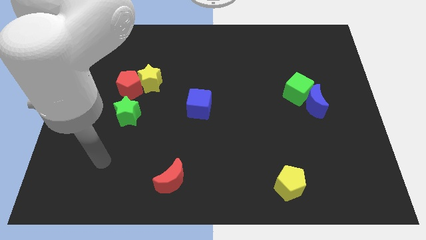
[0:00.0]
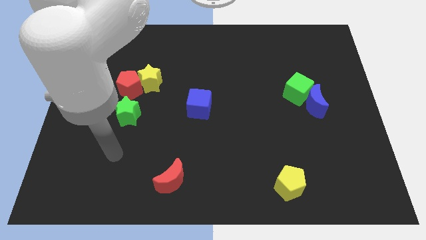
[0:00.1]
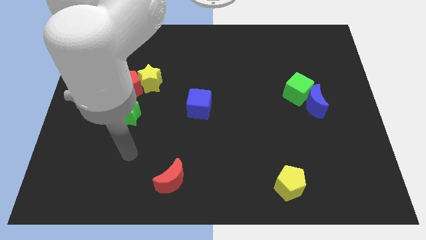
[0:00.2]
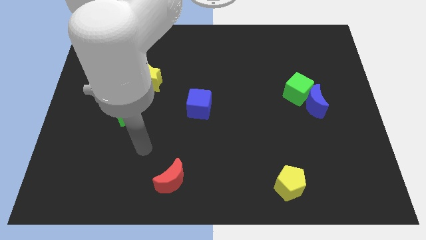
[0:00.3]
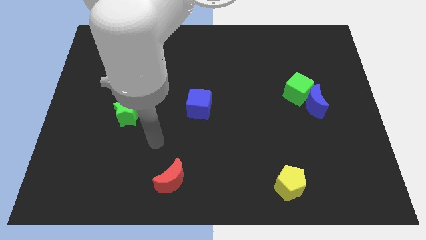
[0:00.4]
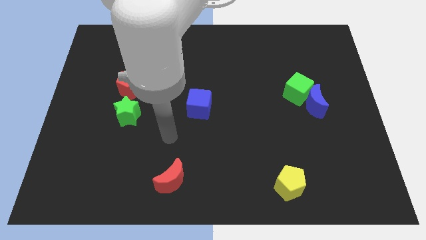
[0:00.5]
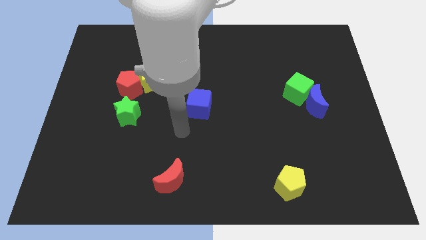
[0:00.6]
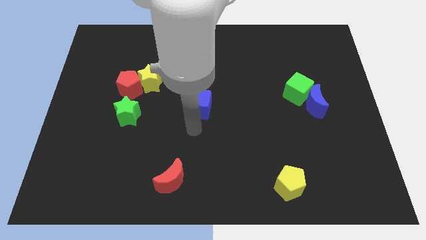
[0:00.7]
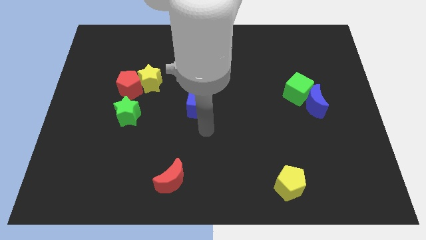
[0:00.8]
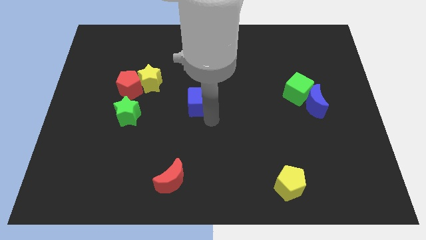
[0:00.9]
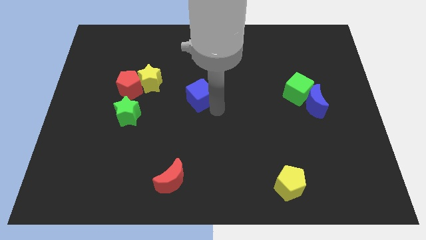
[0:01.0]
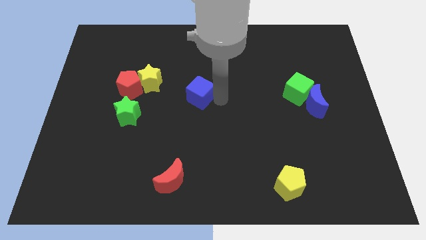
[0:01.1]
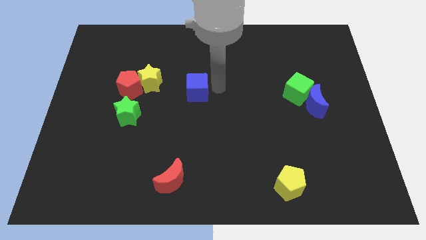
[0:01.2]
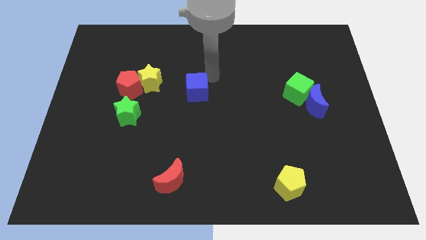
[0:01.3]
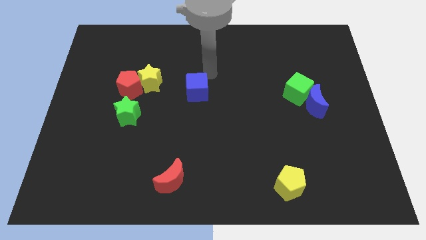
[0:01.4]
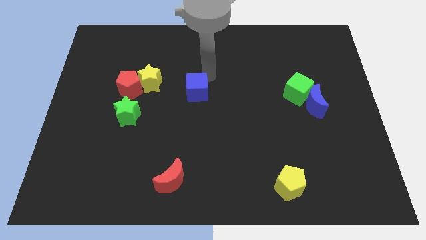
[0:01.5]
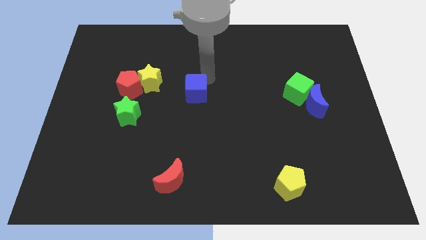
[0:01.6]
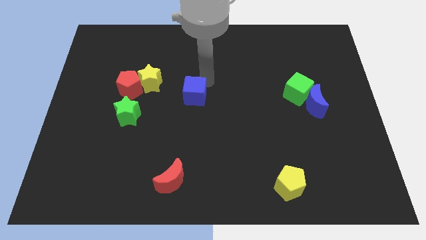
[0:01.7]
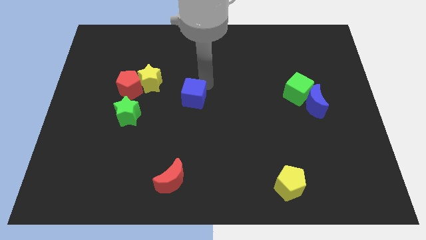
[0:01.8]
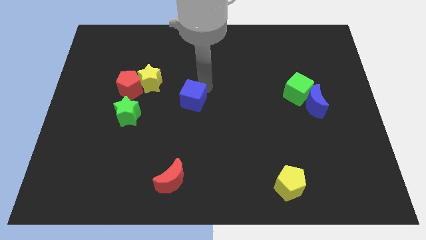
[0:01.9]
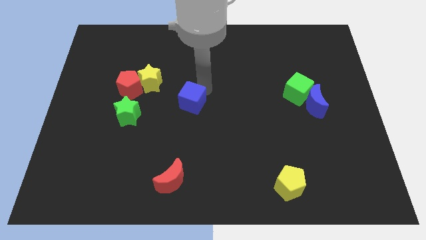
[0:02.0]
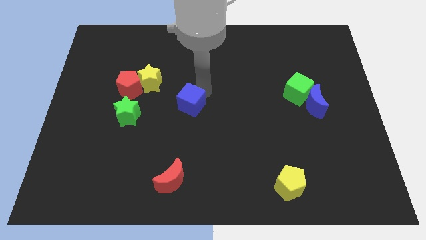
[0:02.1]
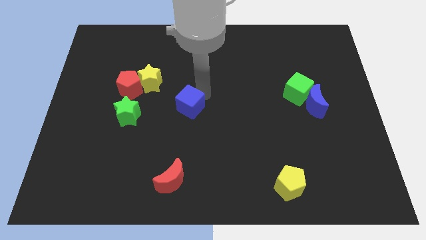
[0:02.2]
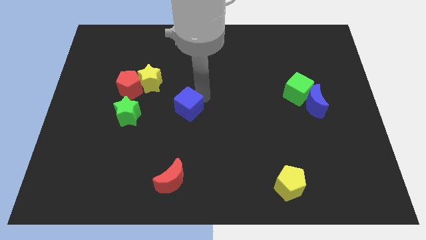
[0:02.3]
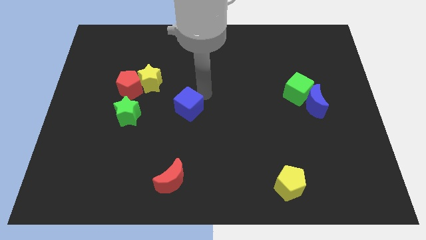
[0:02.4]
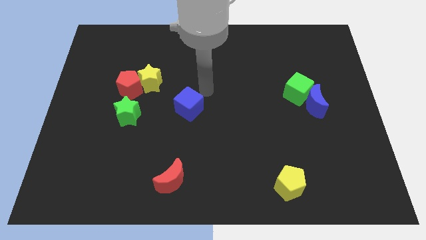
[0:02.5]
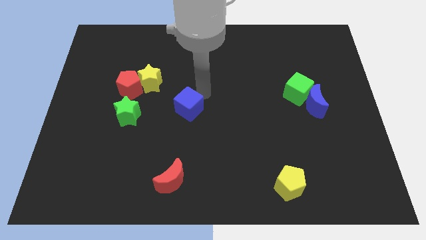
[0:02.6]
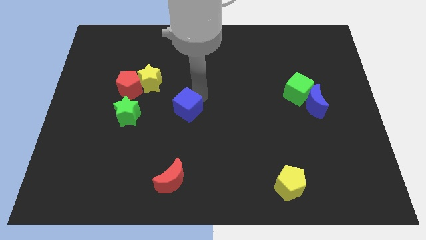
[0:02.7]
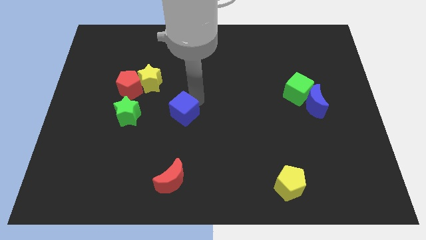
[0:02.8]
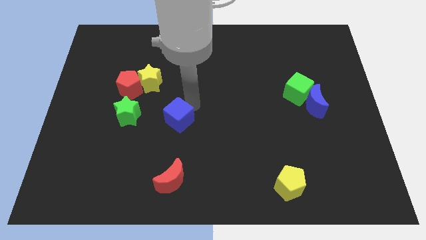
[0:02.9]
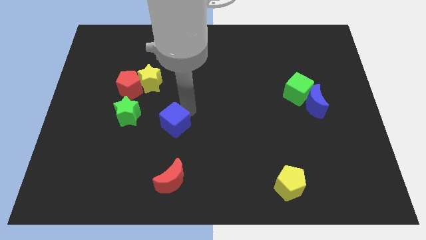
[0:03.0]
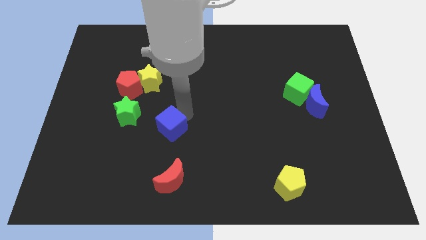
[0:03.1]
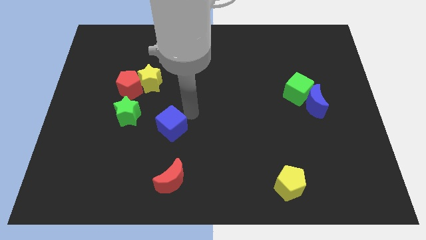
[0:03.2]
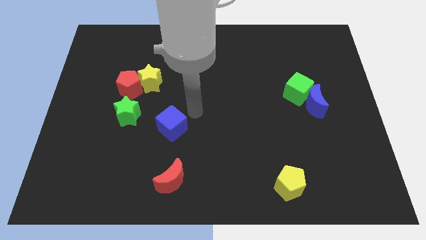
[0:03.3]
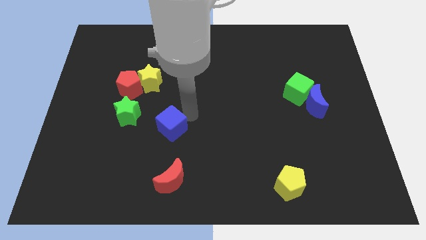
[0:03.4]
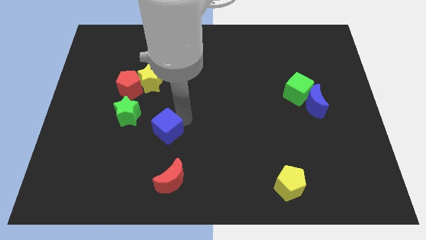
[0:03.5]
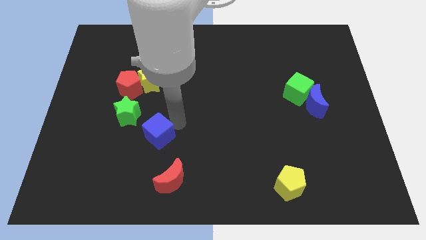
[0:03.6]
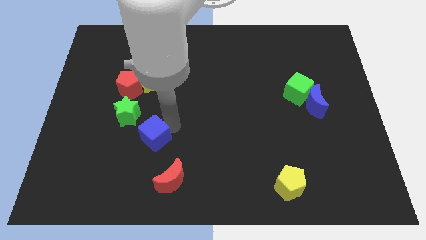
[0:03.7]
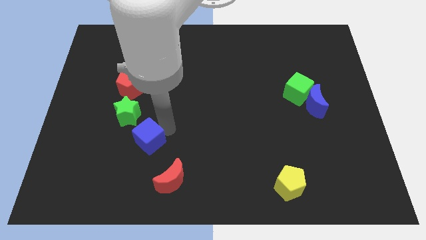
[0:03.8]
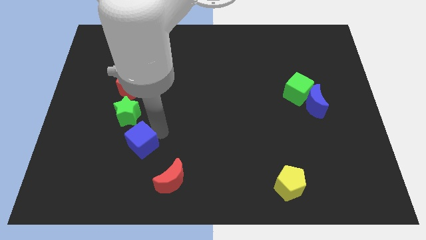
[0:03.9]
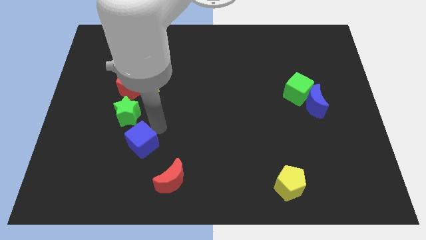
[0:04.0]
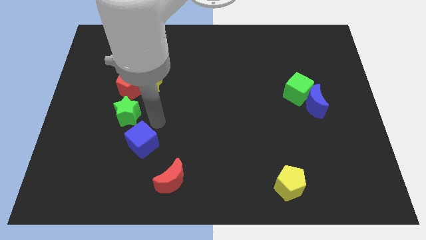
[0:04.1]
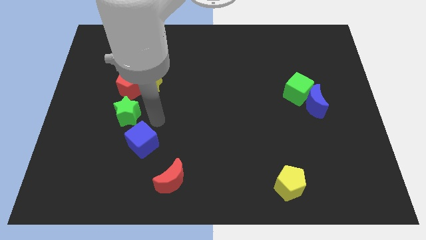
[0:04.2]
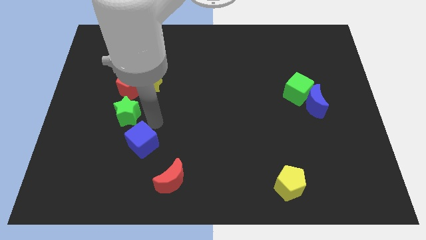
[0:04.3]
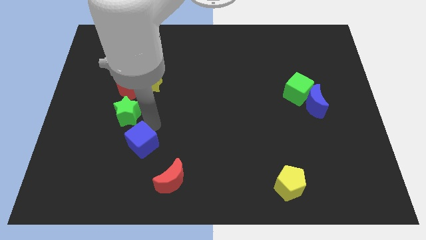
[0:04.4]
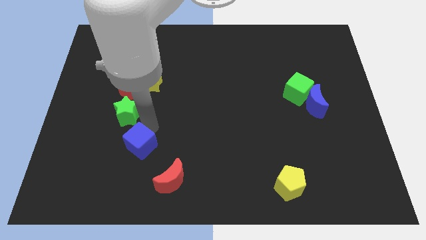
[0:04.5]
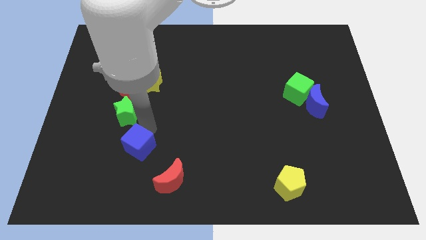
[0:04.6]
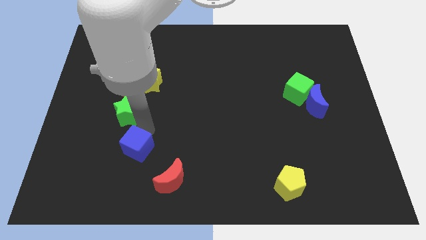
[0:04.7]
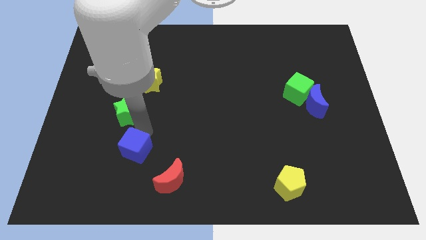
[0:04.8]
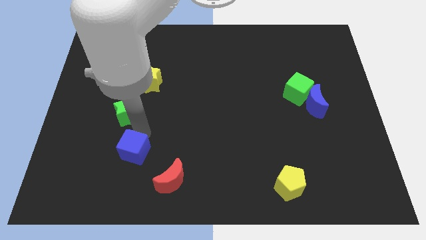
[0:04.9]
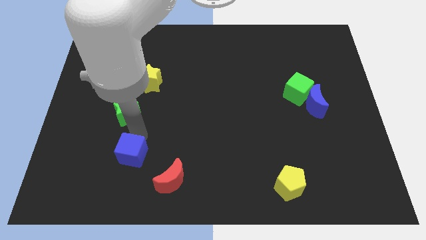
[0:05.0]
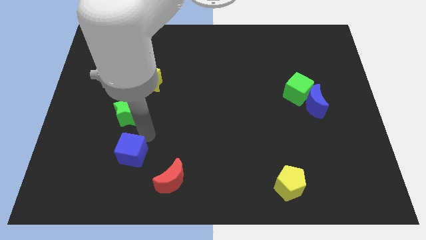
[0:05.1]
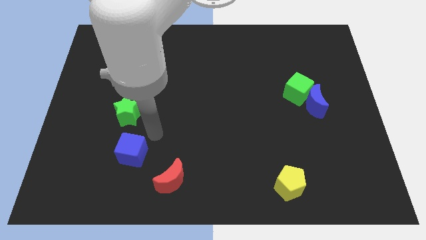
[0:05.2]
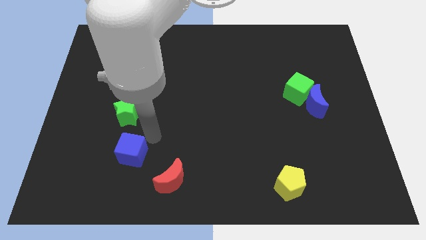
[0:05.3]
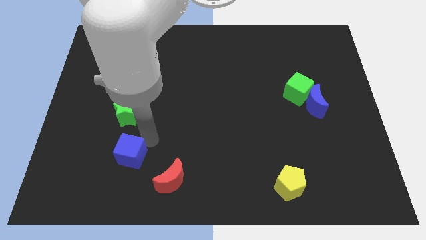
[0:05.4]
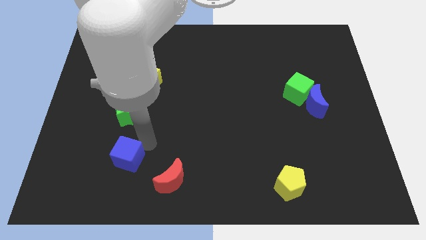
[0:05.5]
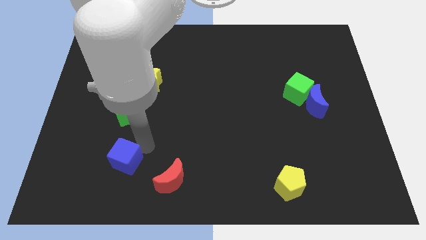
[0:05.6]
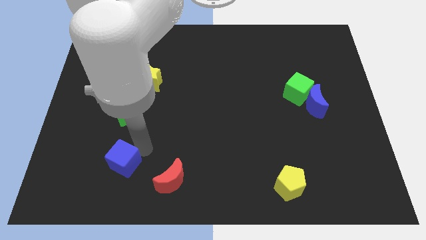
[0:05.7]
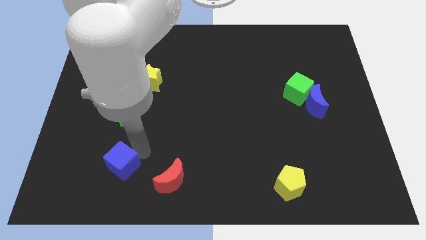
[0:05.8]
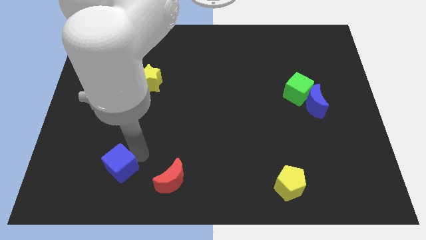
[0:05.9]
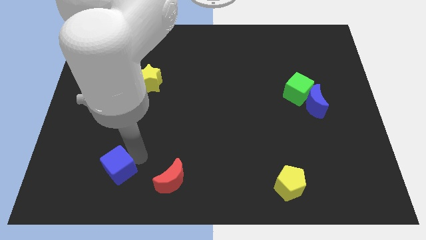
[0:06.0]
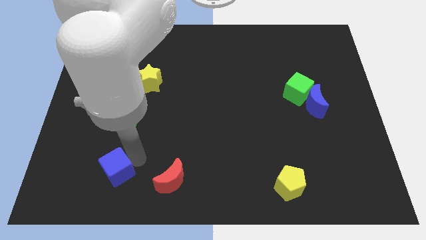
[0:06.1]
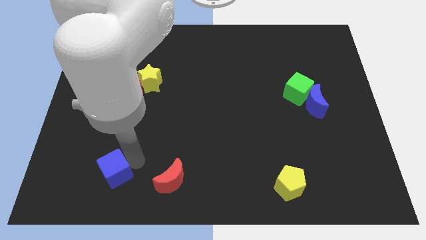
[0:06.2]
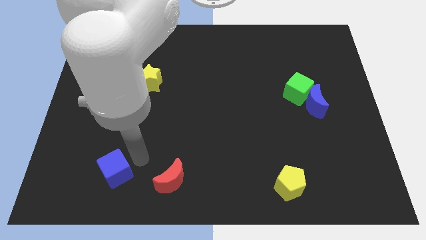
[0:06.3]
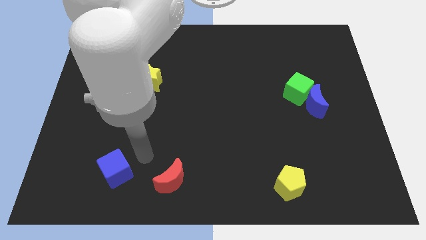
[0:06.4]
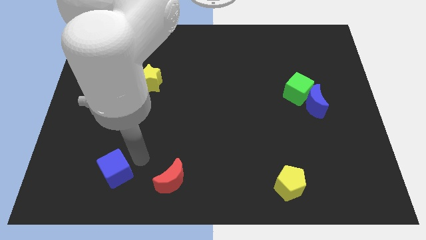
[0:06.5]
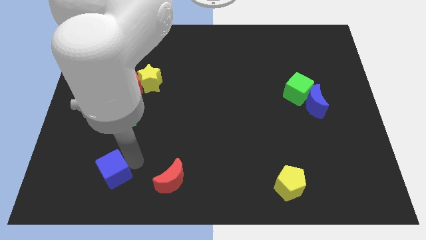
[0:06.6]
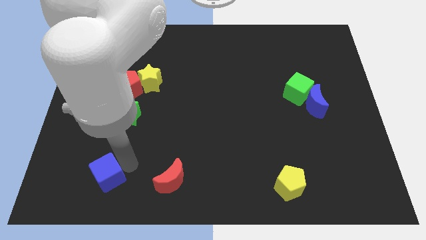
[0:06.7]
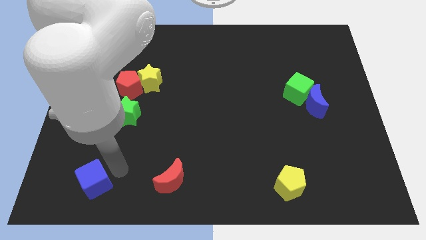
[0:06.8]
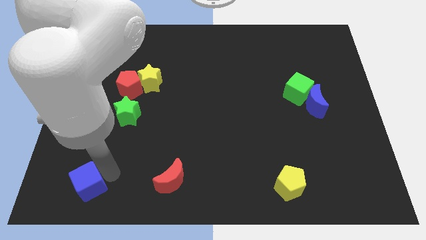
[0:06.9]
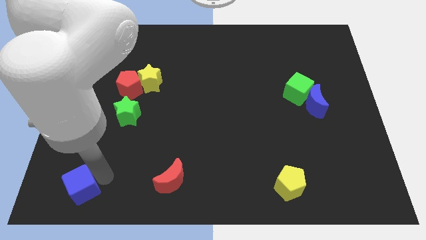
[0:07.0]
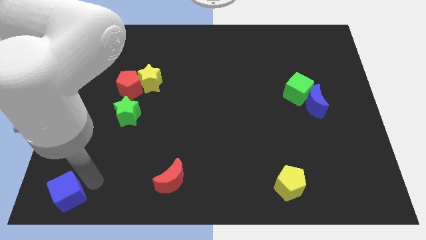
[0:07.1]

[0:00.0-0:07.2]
move the blue cube to the bottom left corner
